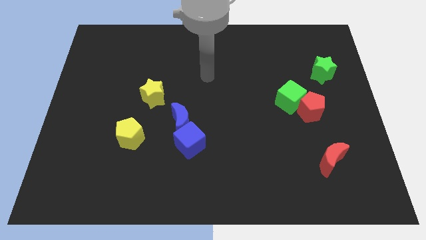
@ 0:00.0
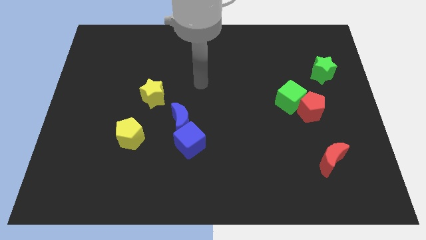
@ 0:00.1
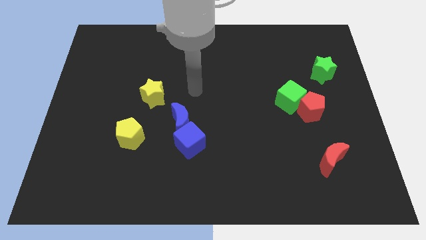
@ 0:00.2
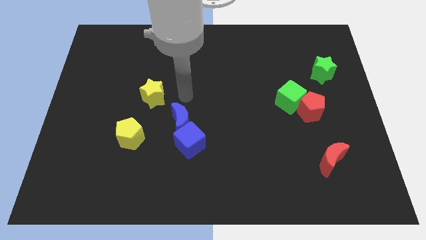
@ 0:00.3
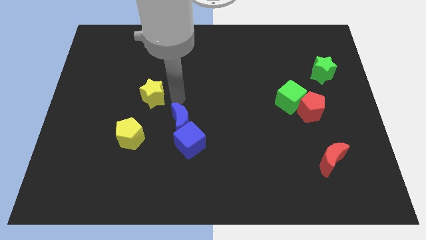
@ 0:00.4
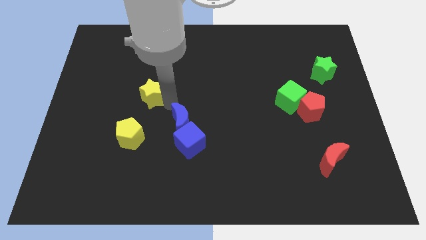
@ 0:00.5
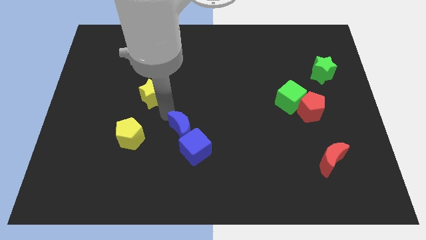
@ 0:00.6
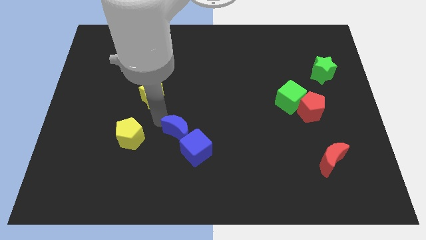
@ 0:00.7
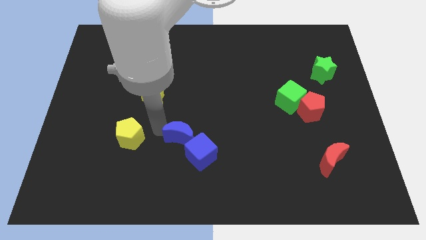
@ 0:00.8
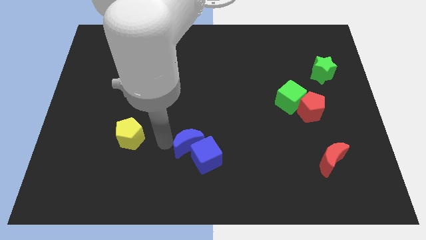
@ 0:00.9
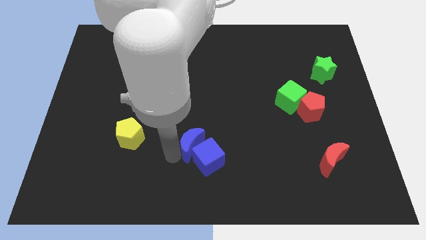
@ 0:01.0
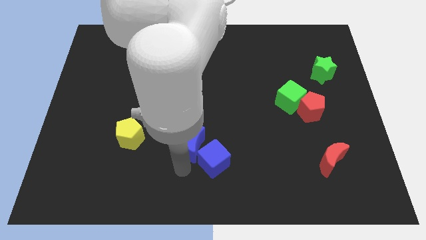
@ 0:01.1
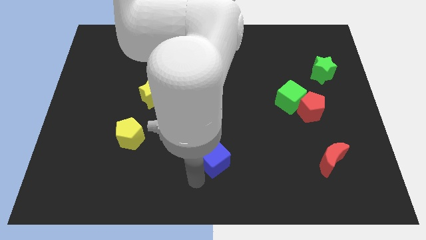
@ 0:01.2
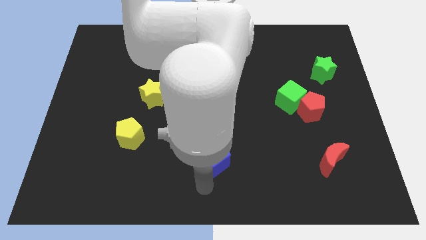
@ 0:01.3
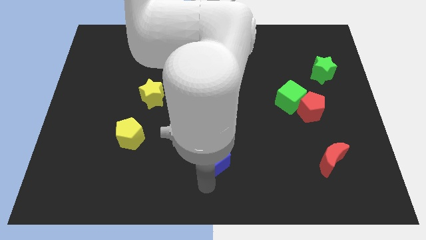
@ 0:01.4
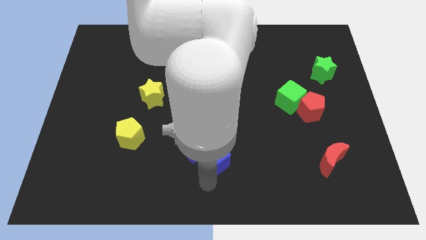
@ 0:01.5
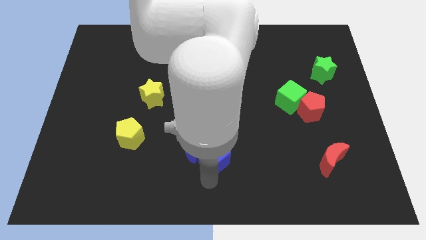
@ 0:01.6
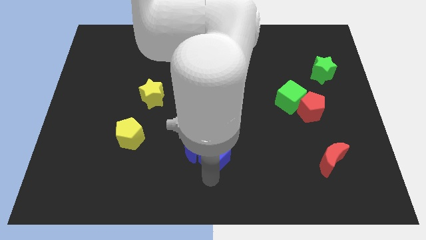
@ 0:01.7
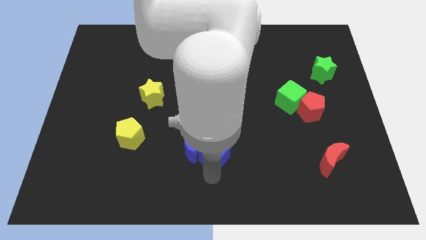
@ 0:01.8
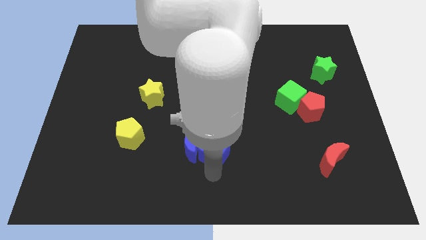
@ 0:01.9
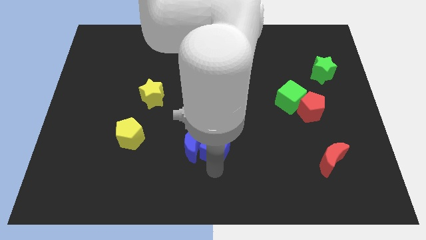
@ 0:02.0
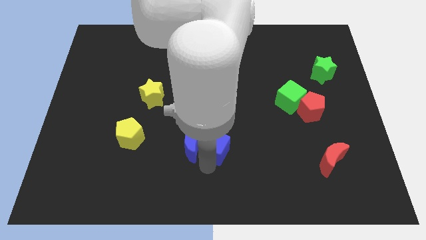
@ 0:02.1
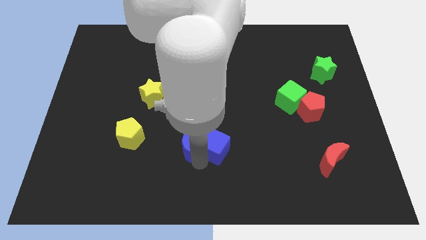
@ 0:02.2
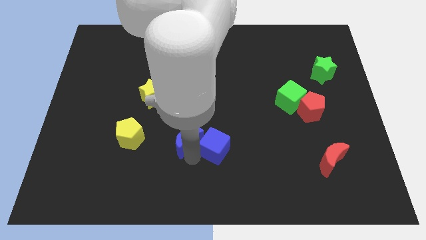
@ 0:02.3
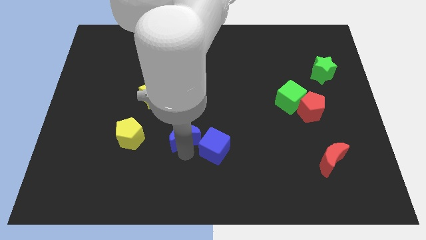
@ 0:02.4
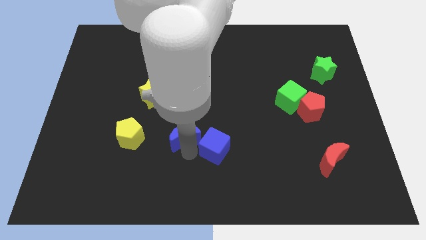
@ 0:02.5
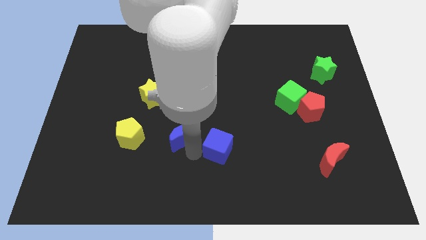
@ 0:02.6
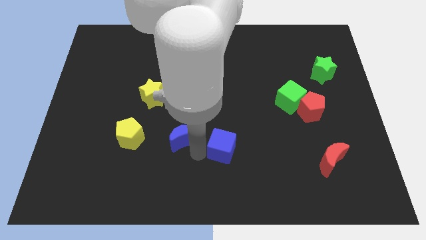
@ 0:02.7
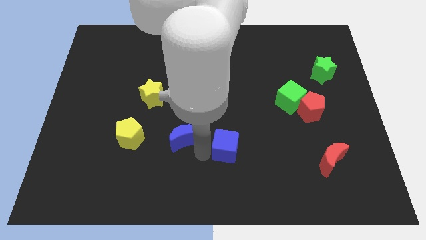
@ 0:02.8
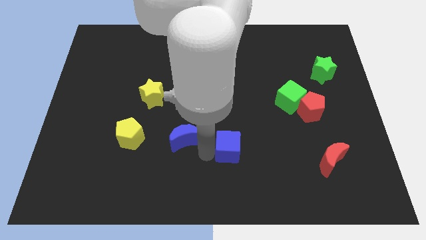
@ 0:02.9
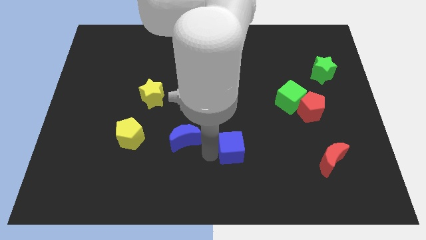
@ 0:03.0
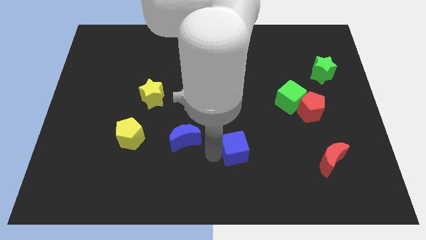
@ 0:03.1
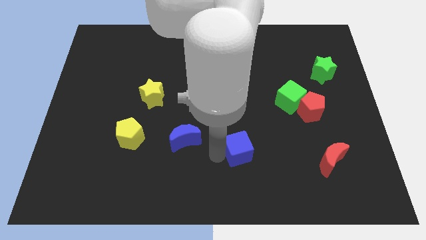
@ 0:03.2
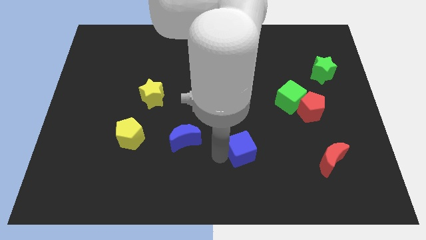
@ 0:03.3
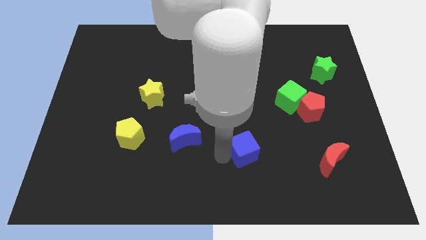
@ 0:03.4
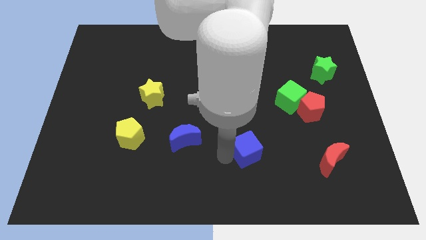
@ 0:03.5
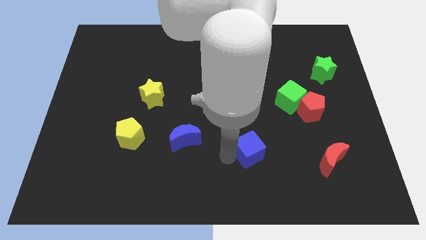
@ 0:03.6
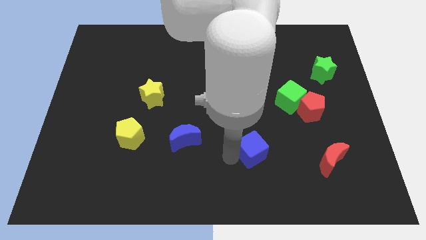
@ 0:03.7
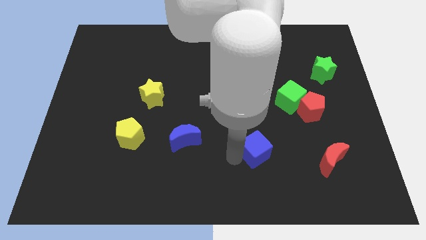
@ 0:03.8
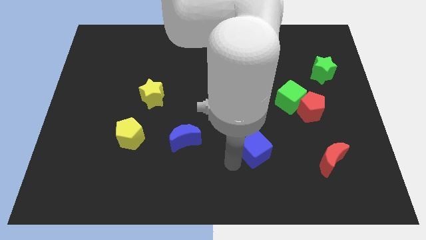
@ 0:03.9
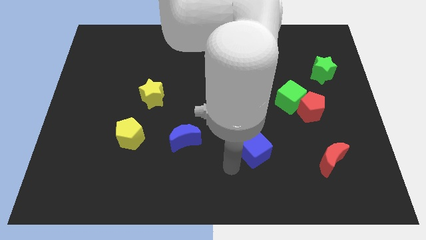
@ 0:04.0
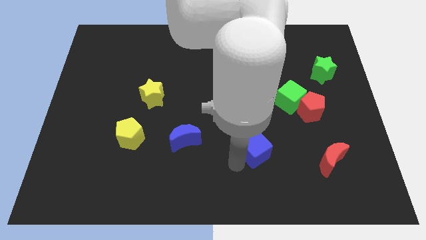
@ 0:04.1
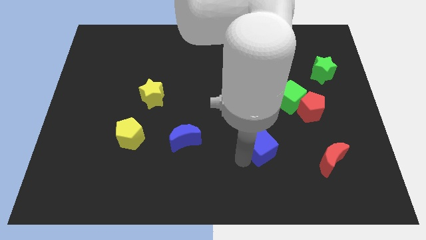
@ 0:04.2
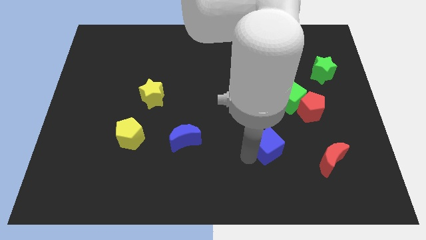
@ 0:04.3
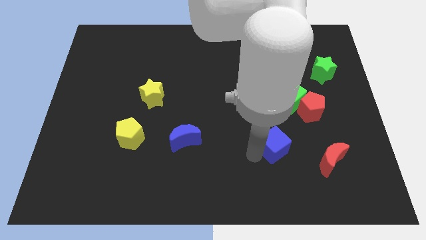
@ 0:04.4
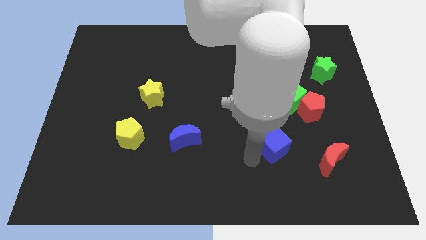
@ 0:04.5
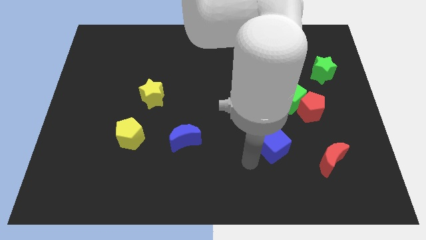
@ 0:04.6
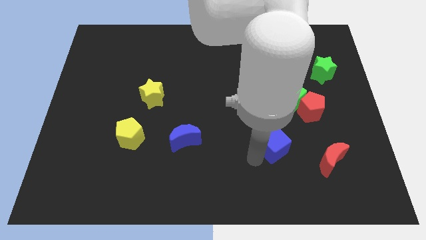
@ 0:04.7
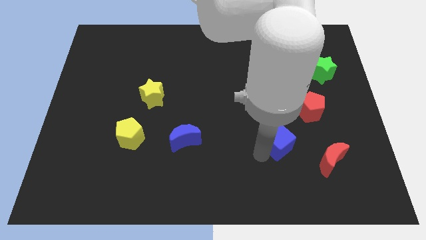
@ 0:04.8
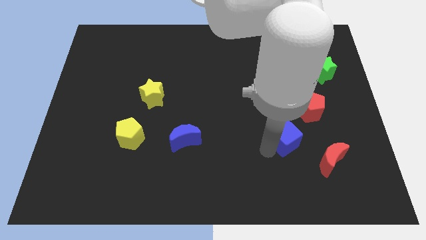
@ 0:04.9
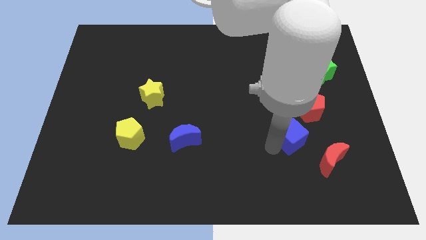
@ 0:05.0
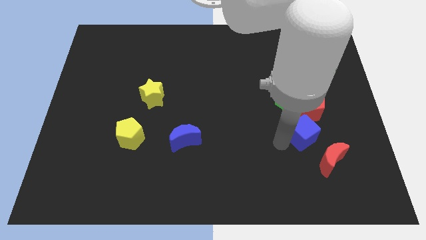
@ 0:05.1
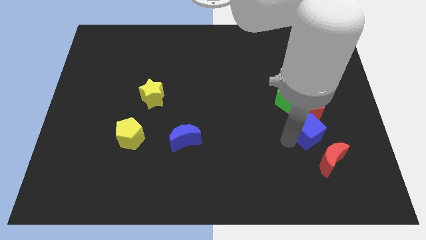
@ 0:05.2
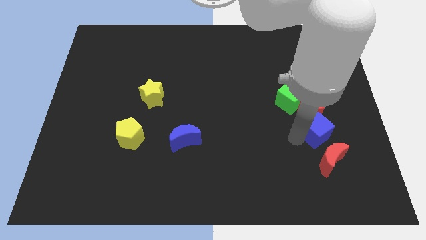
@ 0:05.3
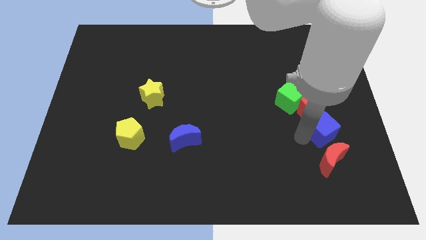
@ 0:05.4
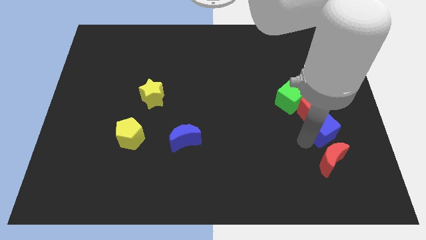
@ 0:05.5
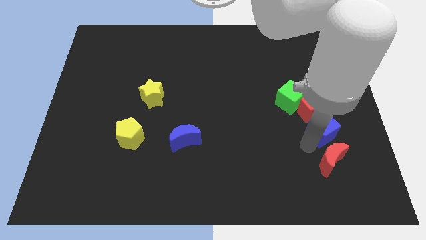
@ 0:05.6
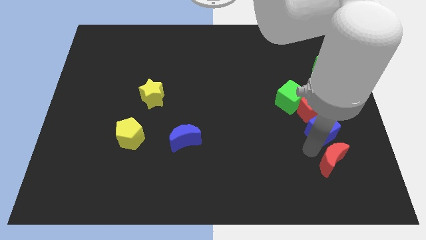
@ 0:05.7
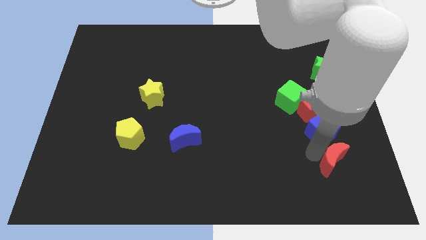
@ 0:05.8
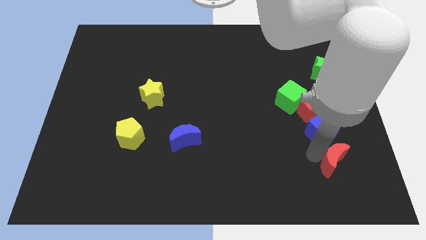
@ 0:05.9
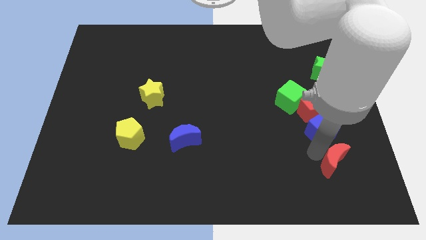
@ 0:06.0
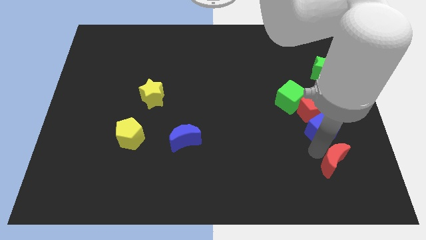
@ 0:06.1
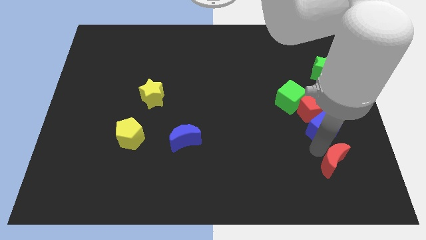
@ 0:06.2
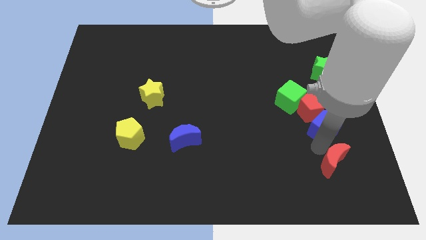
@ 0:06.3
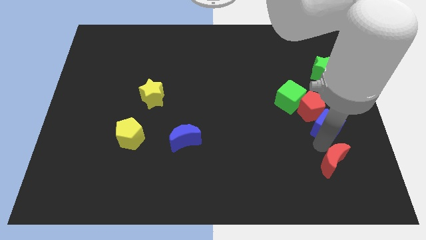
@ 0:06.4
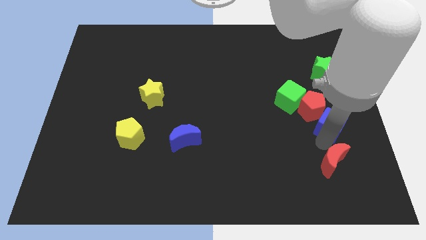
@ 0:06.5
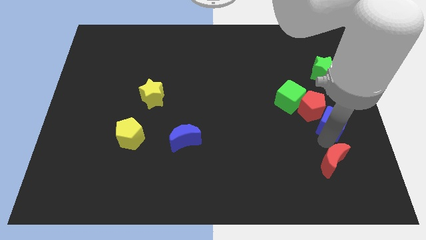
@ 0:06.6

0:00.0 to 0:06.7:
move the blue cube to the bottom of the green star

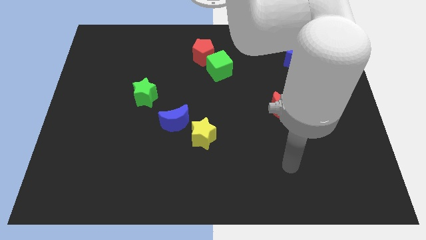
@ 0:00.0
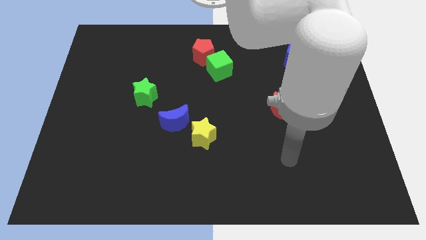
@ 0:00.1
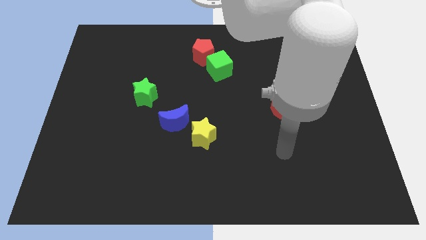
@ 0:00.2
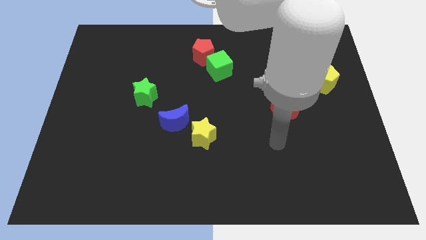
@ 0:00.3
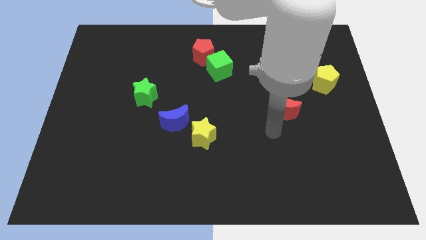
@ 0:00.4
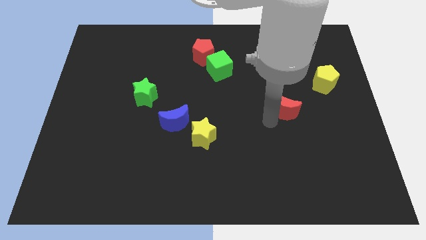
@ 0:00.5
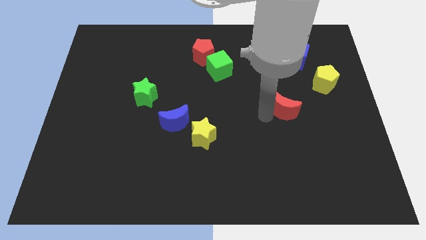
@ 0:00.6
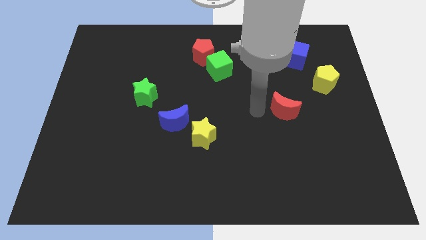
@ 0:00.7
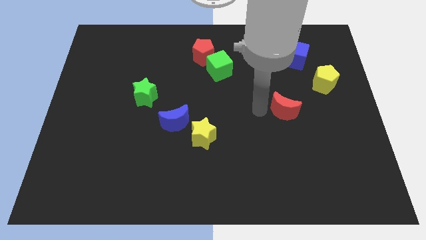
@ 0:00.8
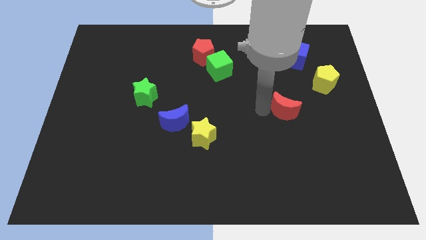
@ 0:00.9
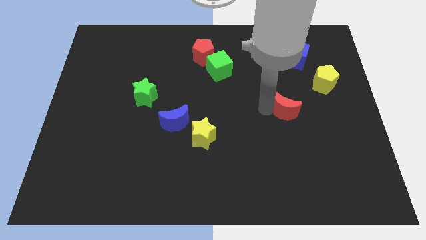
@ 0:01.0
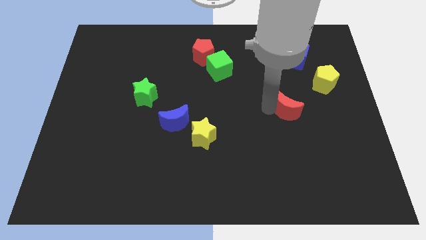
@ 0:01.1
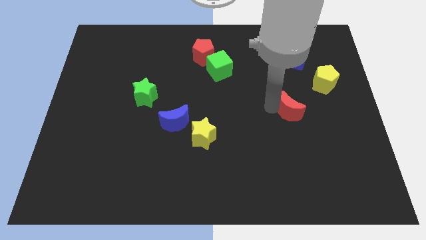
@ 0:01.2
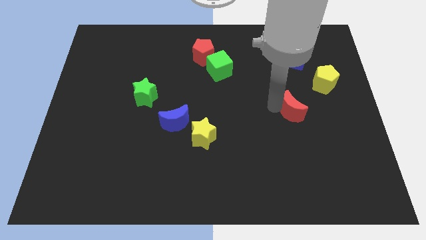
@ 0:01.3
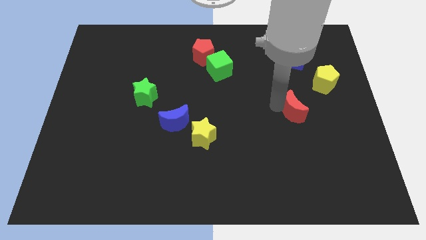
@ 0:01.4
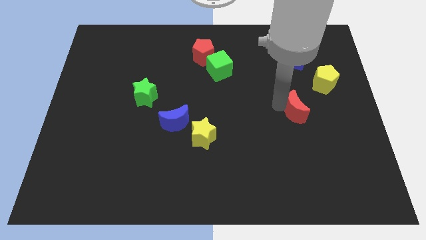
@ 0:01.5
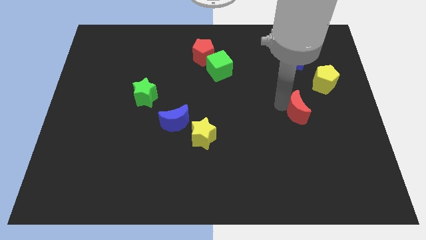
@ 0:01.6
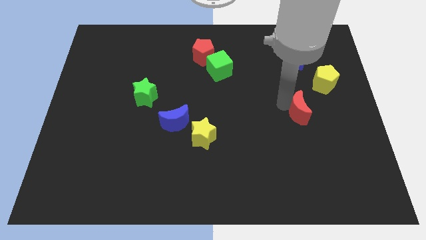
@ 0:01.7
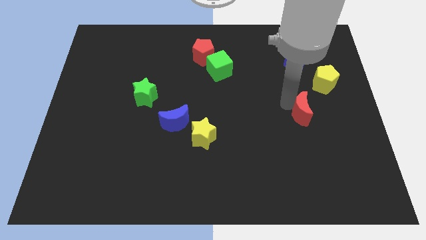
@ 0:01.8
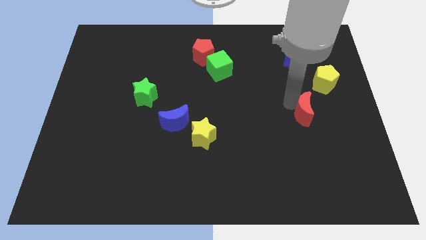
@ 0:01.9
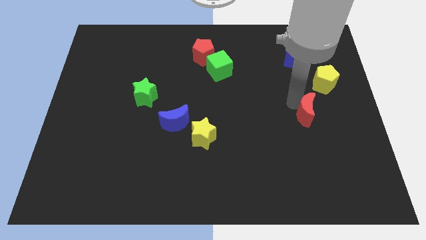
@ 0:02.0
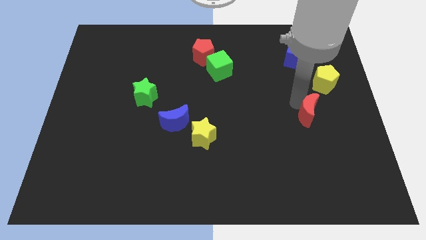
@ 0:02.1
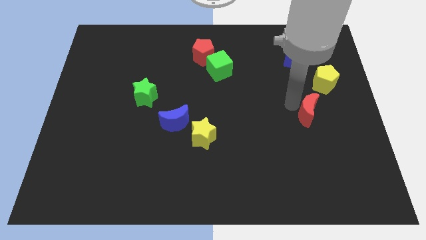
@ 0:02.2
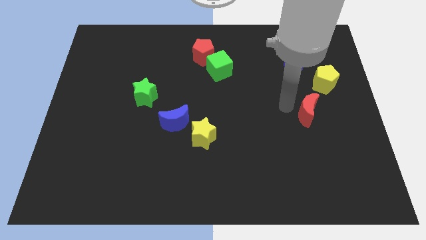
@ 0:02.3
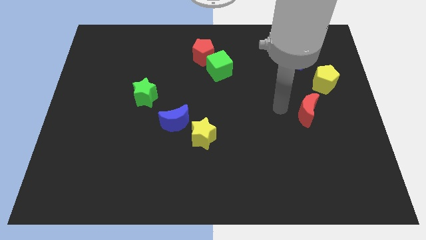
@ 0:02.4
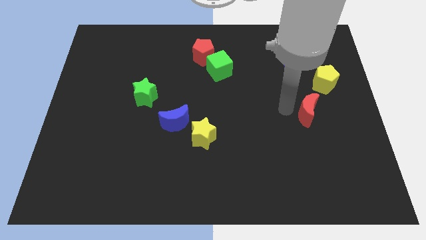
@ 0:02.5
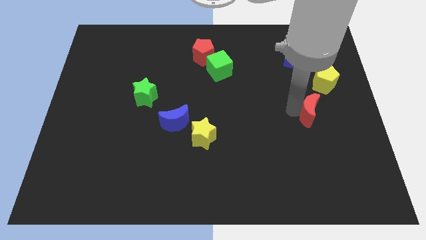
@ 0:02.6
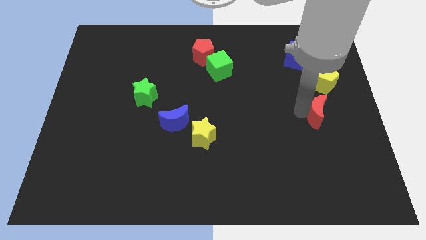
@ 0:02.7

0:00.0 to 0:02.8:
move the red moon to the bottom of the yellow pentagon
